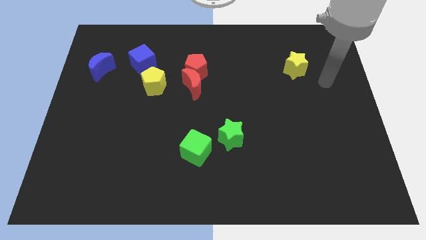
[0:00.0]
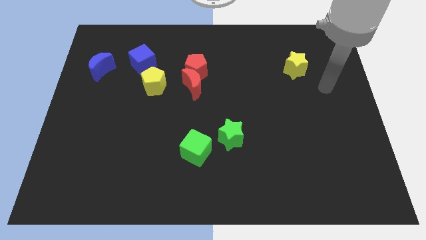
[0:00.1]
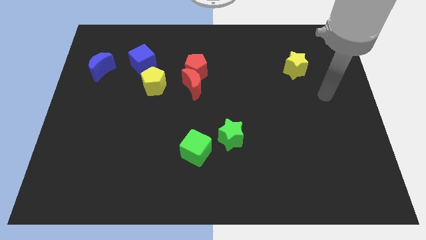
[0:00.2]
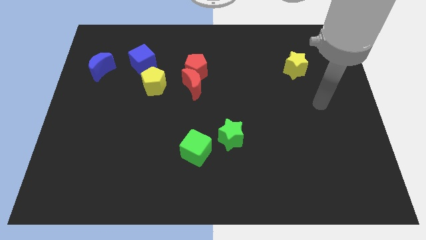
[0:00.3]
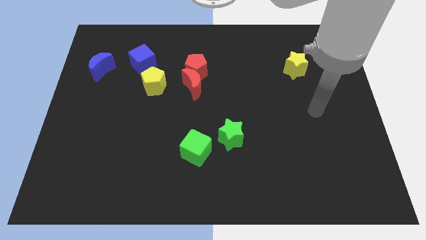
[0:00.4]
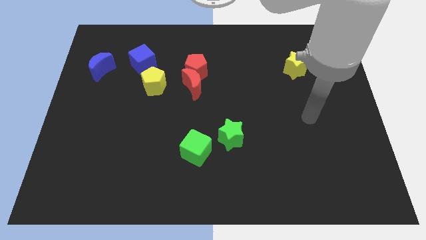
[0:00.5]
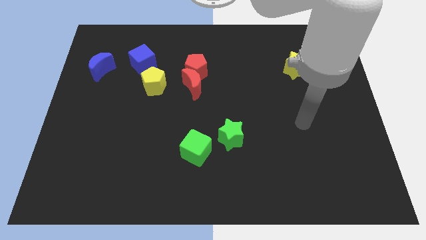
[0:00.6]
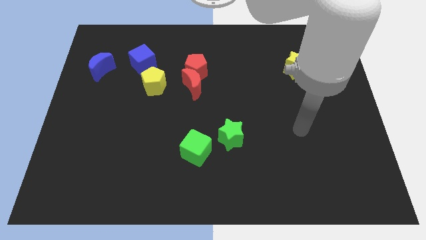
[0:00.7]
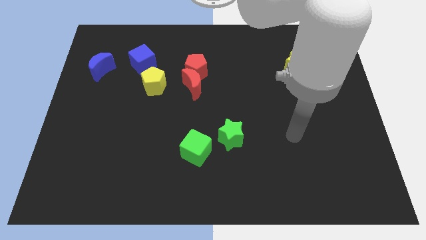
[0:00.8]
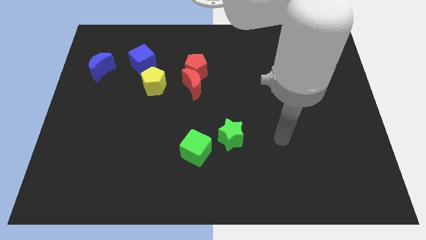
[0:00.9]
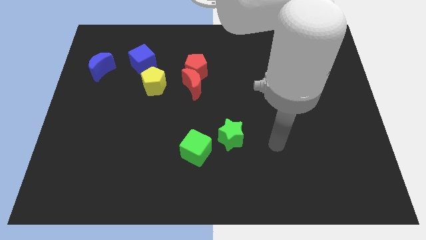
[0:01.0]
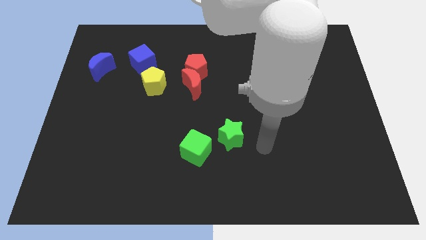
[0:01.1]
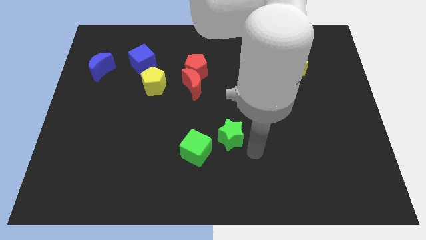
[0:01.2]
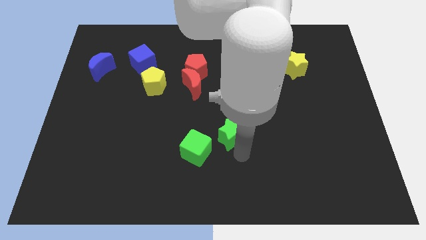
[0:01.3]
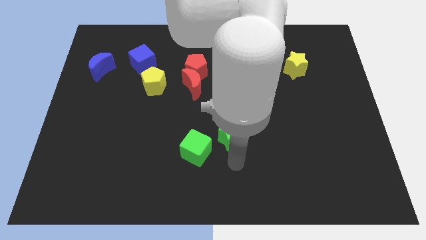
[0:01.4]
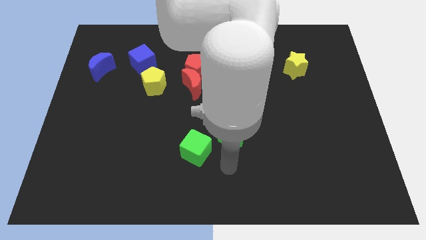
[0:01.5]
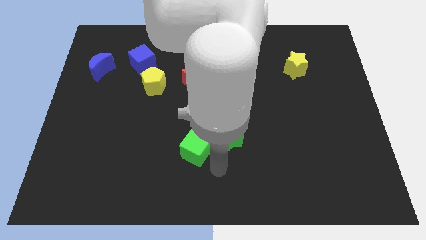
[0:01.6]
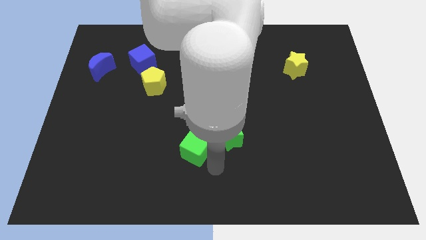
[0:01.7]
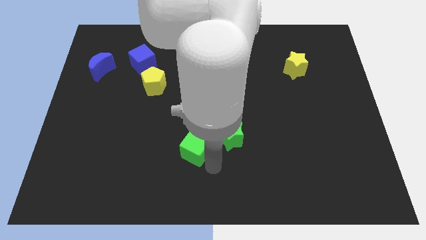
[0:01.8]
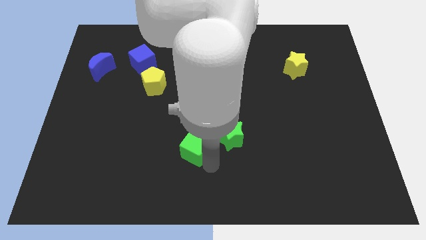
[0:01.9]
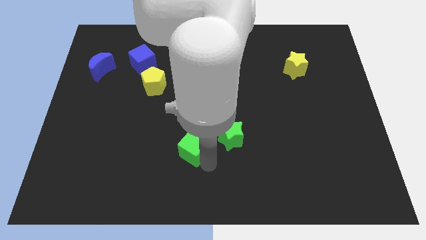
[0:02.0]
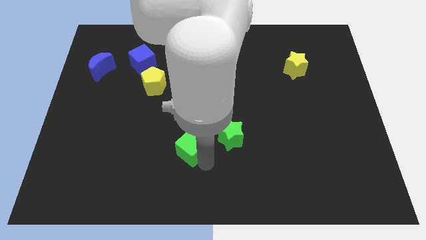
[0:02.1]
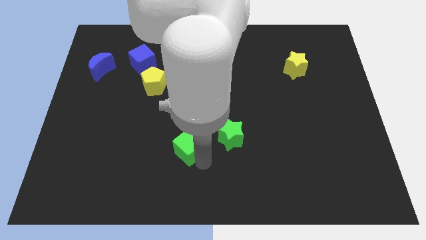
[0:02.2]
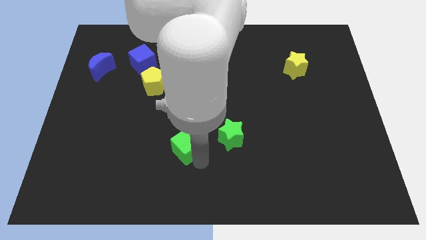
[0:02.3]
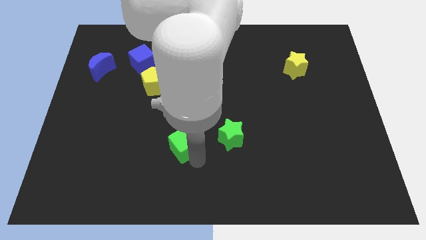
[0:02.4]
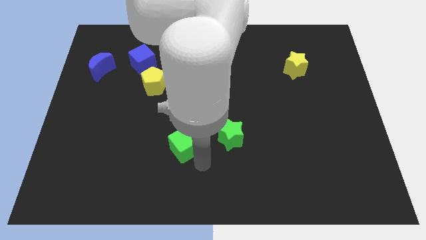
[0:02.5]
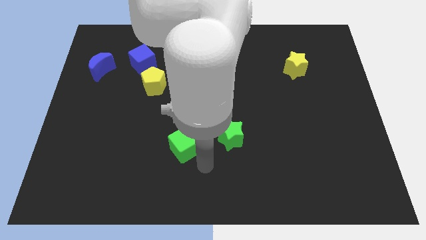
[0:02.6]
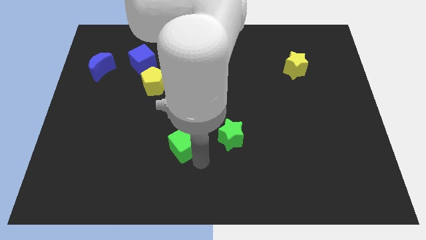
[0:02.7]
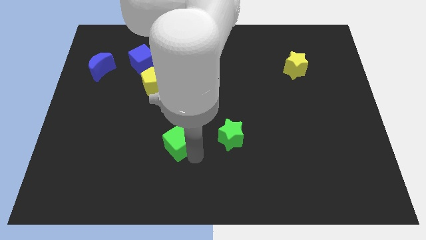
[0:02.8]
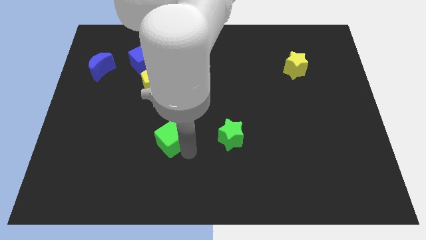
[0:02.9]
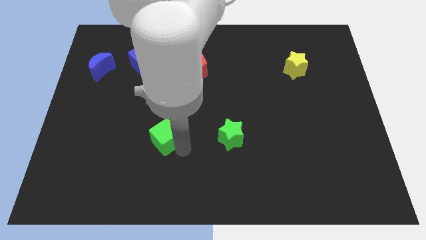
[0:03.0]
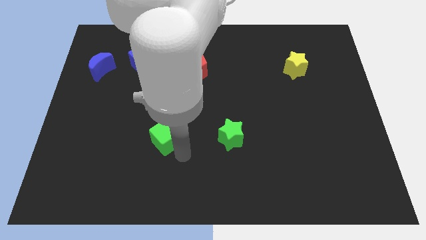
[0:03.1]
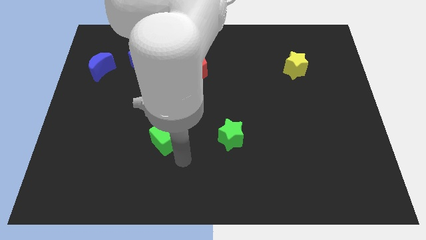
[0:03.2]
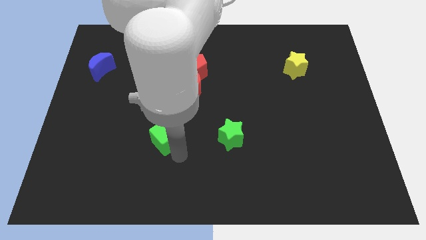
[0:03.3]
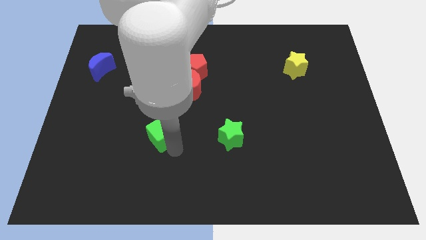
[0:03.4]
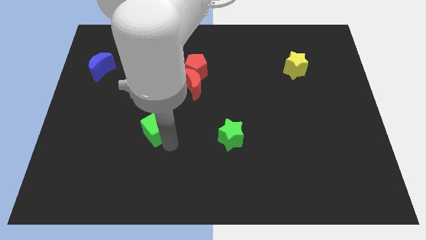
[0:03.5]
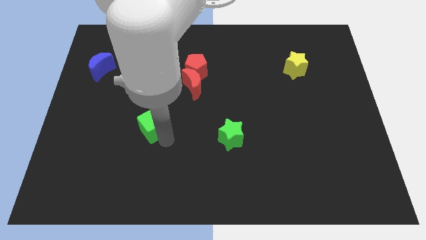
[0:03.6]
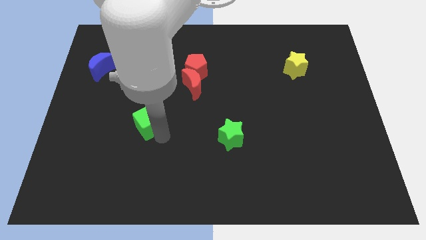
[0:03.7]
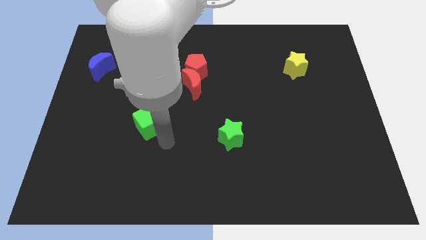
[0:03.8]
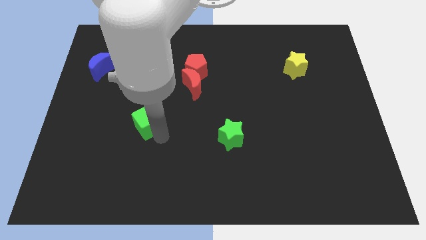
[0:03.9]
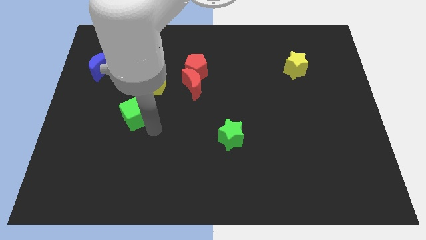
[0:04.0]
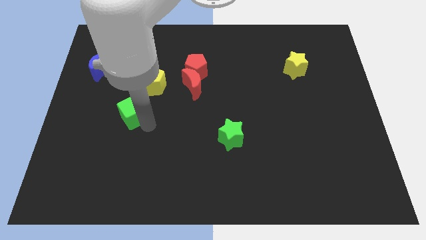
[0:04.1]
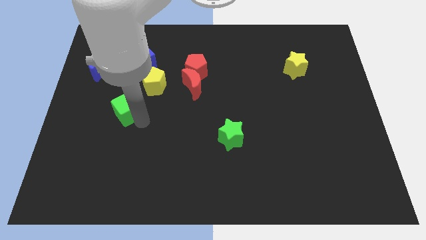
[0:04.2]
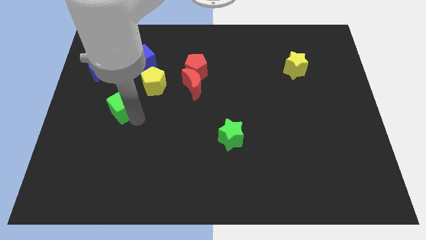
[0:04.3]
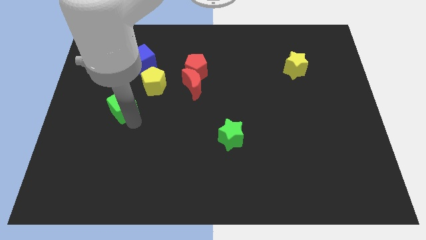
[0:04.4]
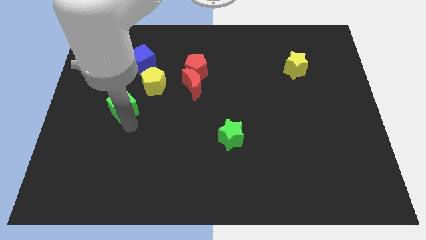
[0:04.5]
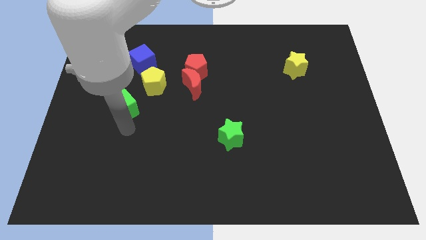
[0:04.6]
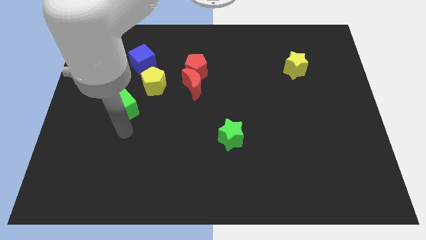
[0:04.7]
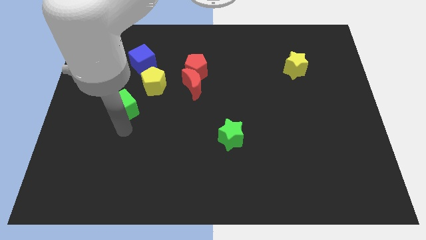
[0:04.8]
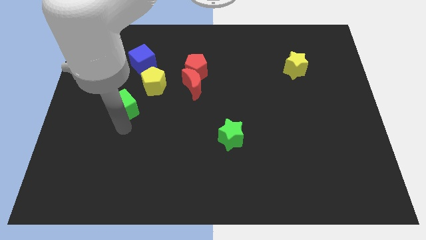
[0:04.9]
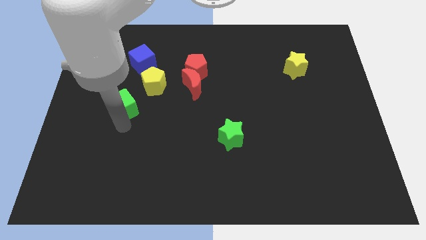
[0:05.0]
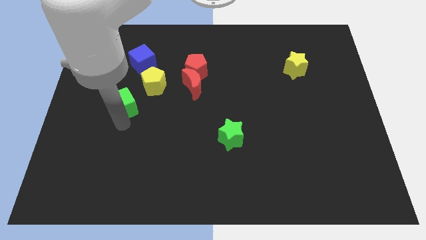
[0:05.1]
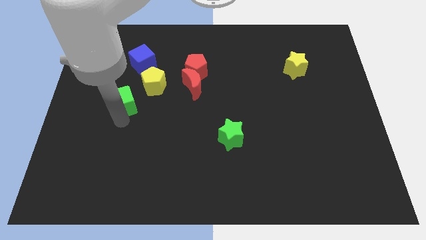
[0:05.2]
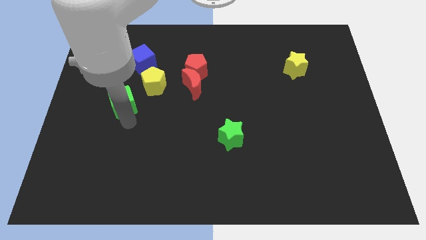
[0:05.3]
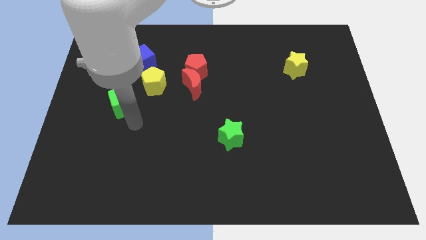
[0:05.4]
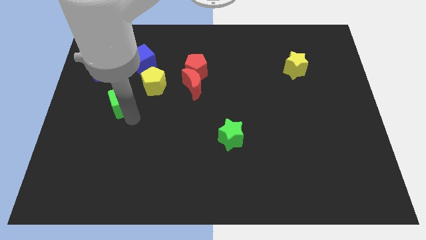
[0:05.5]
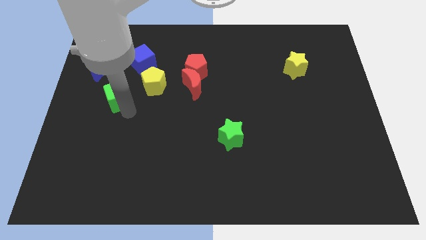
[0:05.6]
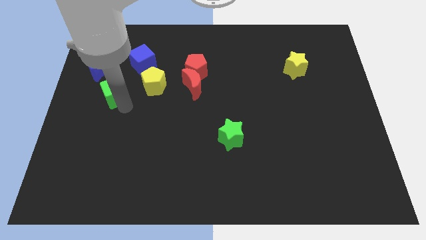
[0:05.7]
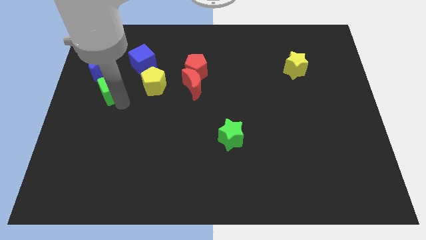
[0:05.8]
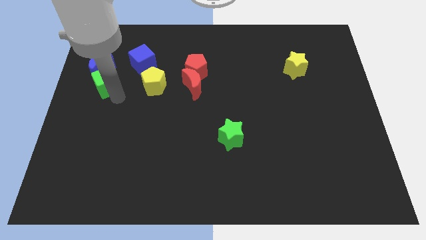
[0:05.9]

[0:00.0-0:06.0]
push the green cube towards the blue moon

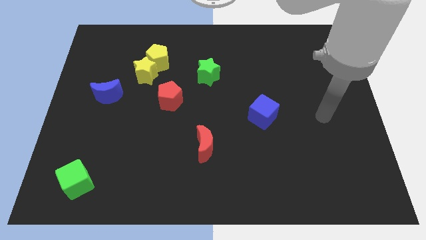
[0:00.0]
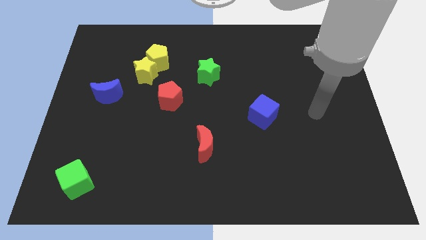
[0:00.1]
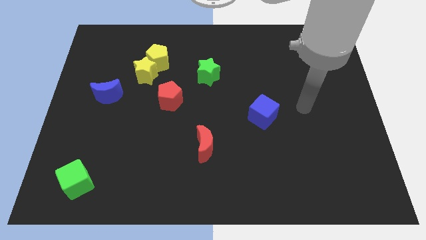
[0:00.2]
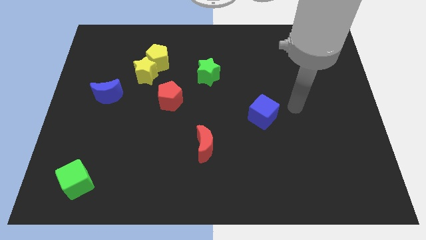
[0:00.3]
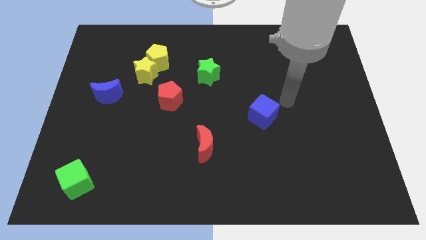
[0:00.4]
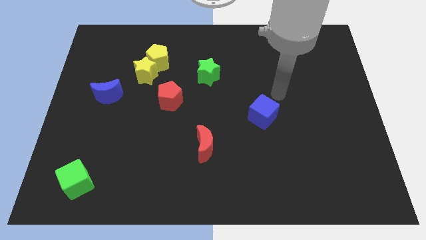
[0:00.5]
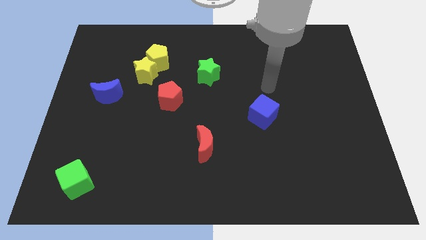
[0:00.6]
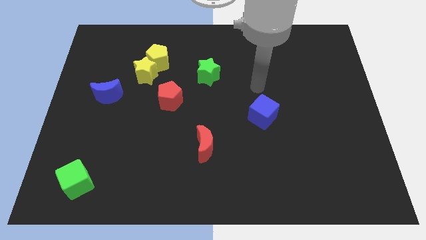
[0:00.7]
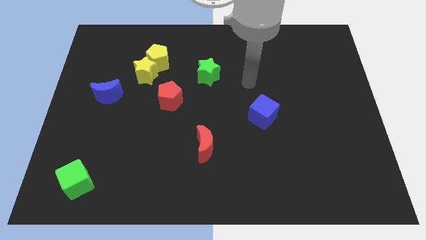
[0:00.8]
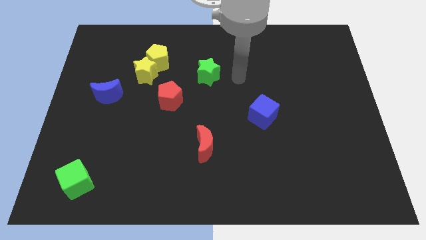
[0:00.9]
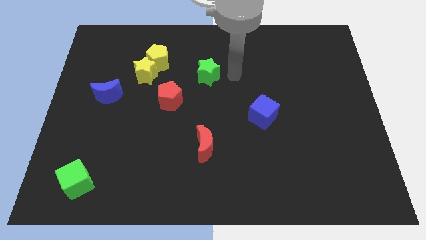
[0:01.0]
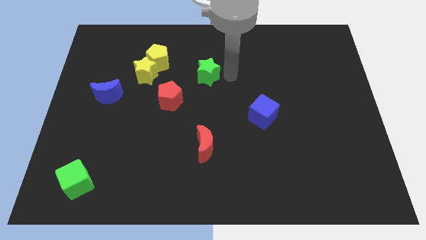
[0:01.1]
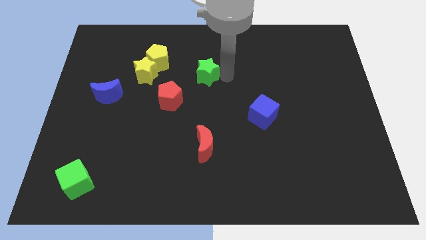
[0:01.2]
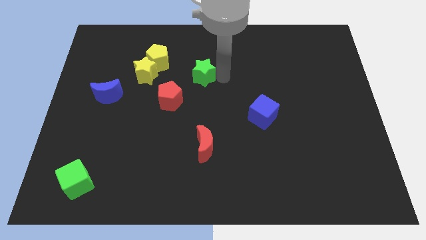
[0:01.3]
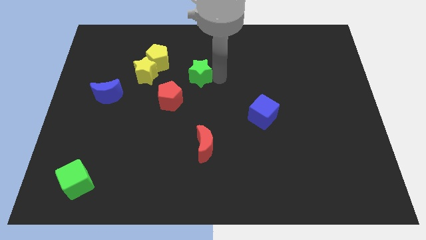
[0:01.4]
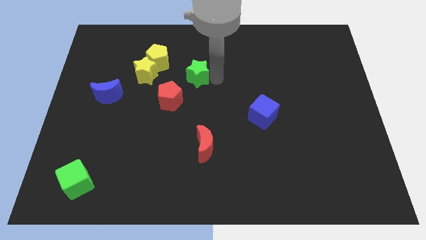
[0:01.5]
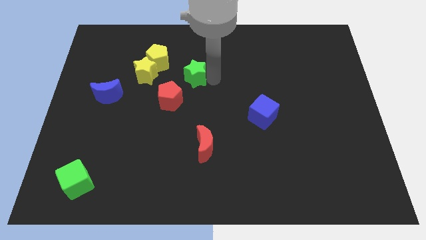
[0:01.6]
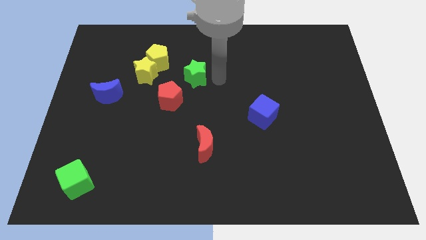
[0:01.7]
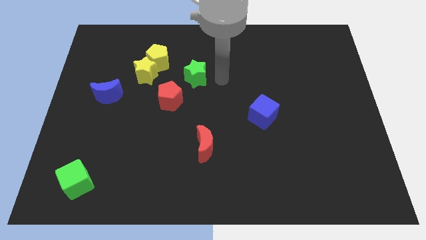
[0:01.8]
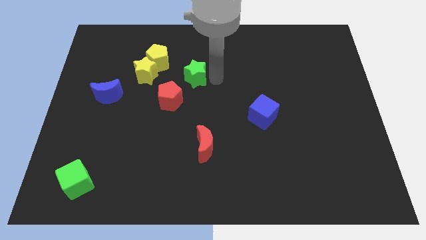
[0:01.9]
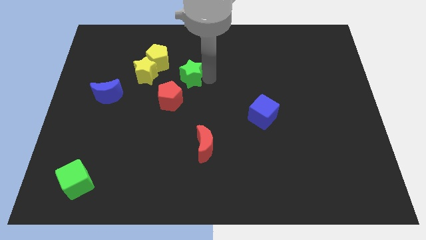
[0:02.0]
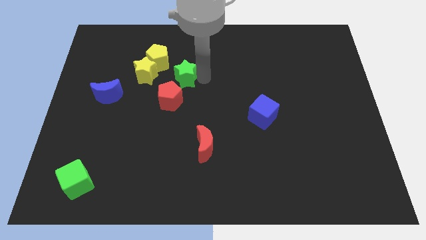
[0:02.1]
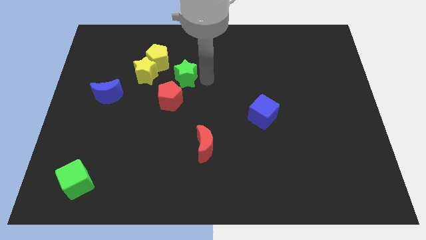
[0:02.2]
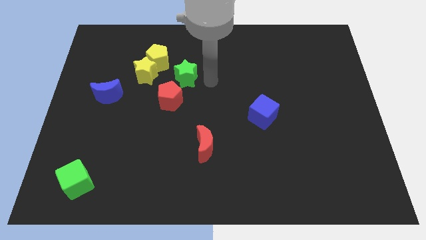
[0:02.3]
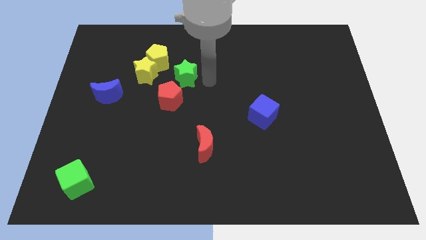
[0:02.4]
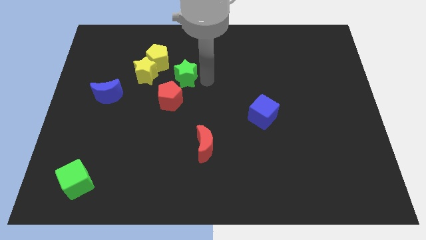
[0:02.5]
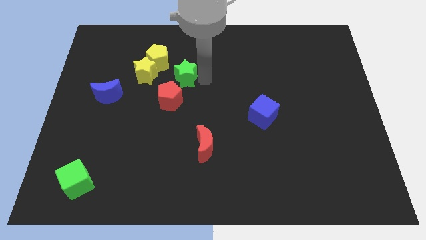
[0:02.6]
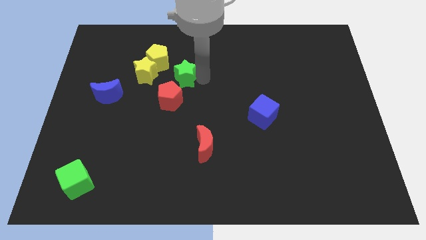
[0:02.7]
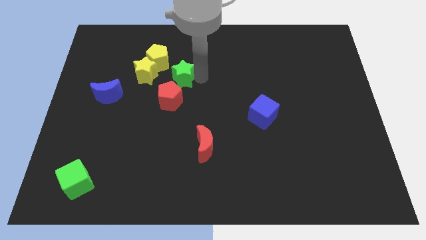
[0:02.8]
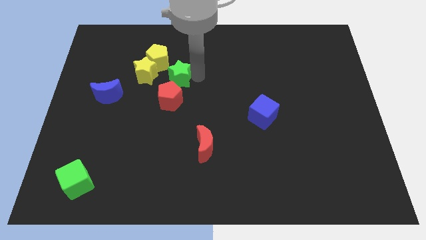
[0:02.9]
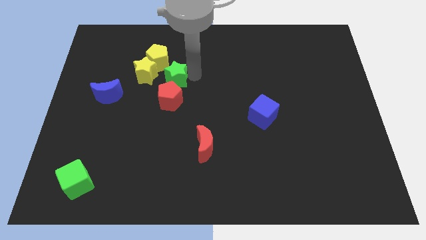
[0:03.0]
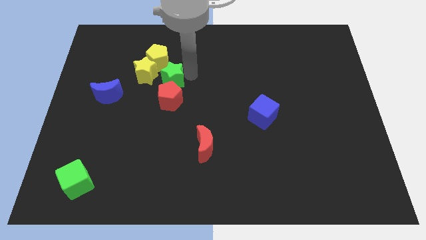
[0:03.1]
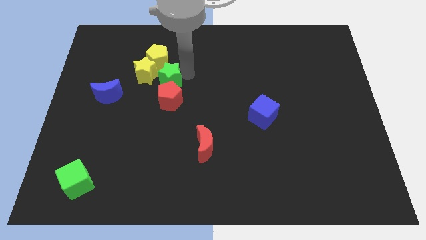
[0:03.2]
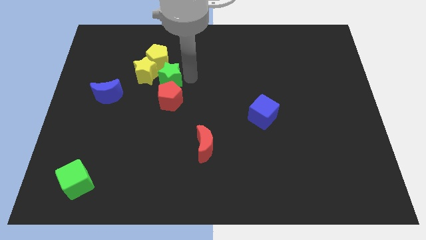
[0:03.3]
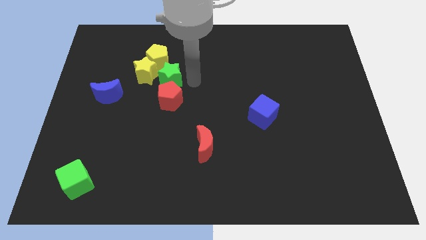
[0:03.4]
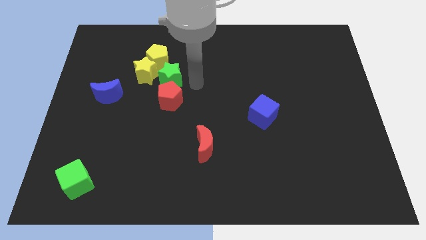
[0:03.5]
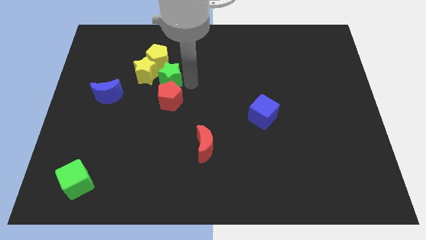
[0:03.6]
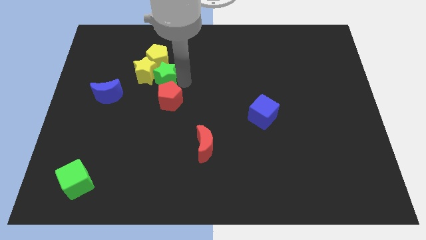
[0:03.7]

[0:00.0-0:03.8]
move the green star to the yellow star
